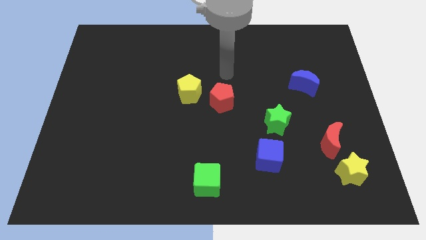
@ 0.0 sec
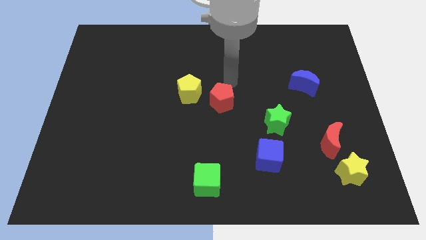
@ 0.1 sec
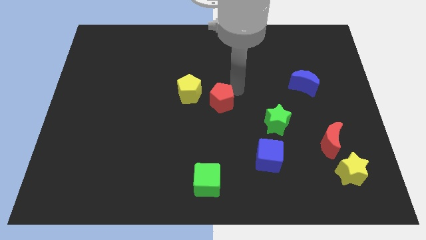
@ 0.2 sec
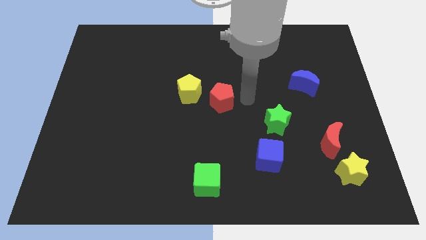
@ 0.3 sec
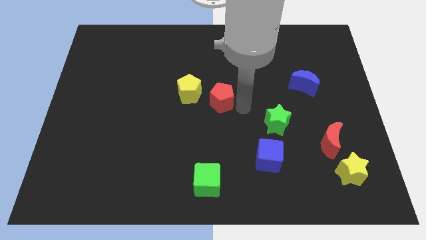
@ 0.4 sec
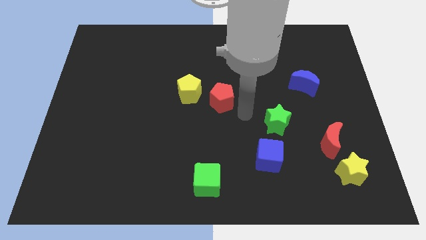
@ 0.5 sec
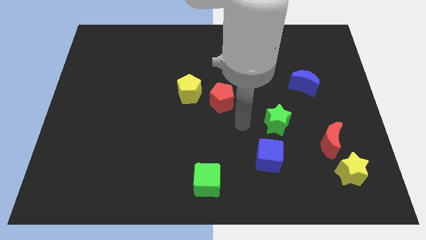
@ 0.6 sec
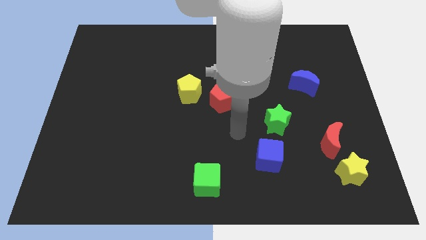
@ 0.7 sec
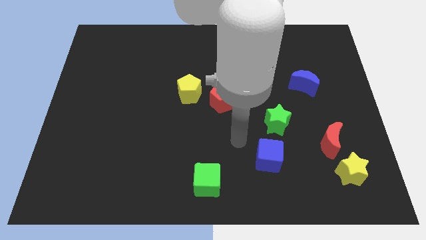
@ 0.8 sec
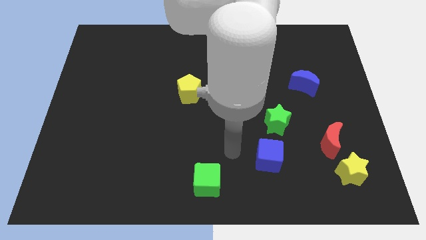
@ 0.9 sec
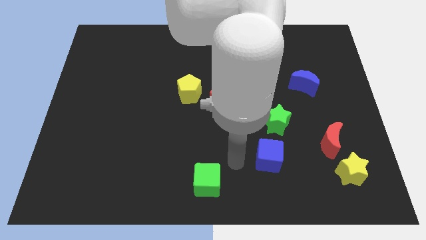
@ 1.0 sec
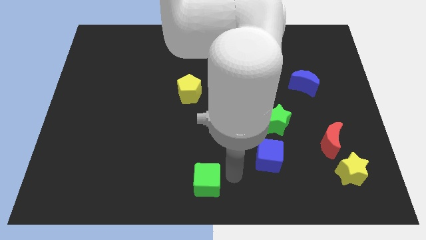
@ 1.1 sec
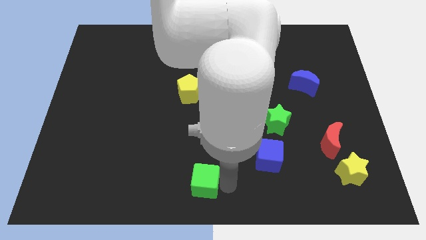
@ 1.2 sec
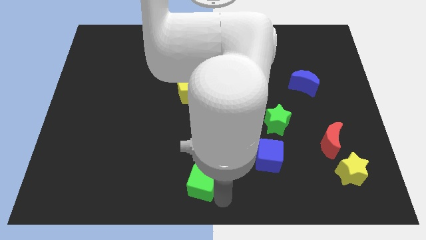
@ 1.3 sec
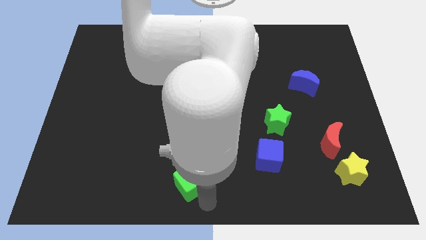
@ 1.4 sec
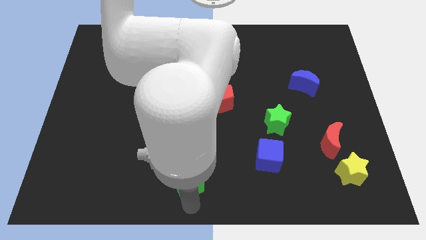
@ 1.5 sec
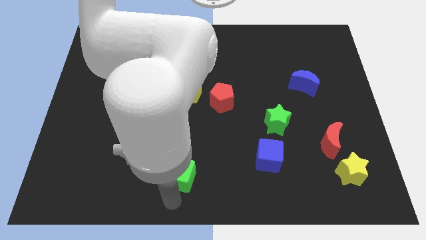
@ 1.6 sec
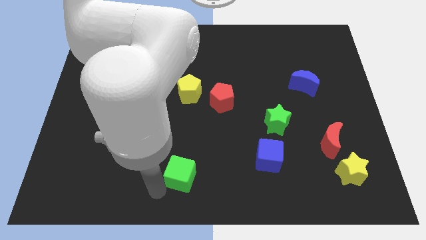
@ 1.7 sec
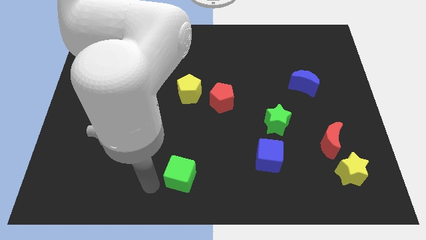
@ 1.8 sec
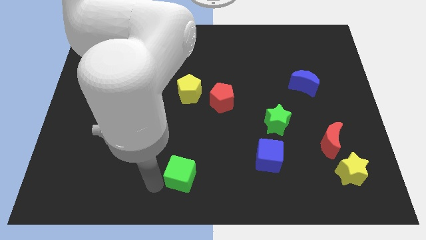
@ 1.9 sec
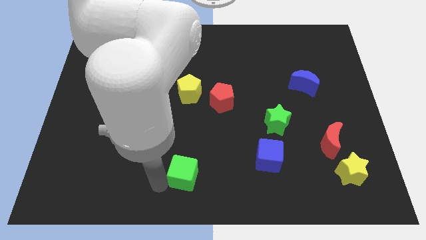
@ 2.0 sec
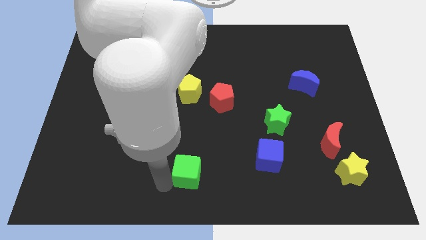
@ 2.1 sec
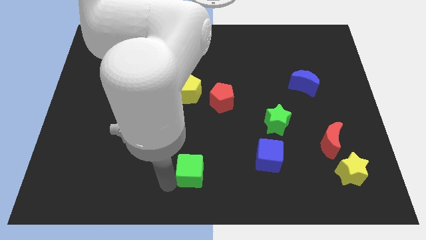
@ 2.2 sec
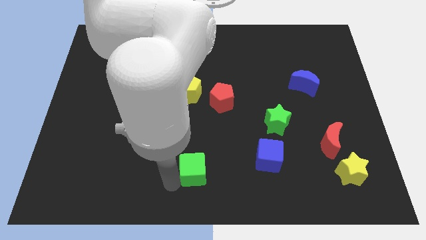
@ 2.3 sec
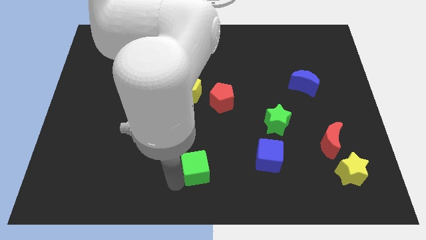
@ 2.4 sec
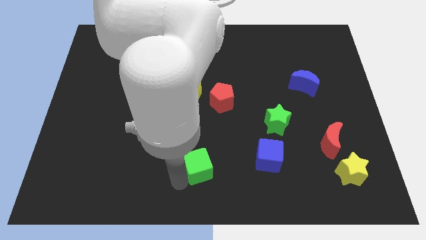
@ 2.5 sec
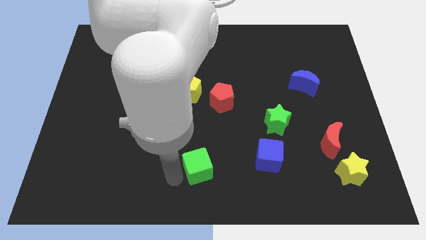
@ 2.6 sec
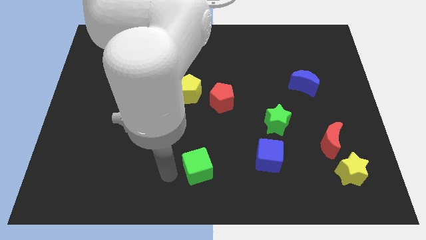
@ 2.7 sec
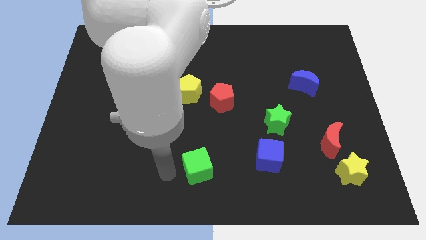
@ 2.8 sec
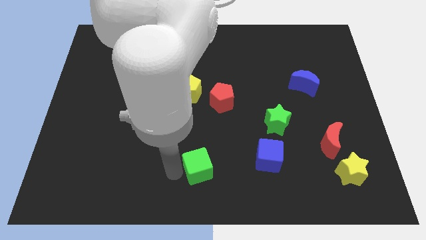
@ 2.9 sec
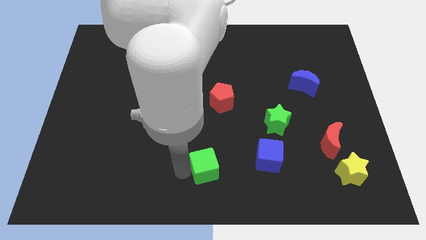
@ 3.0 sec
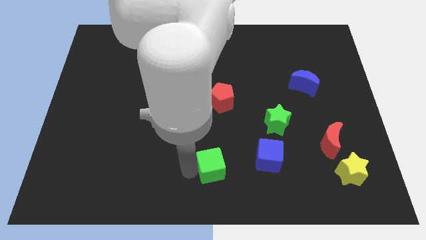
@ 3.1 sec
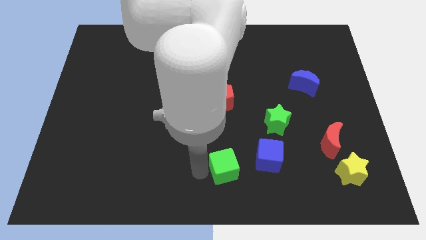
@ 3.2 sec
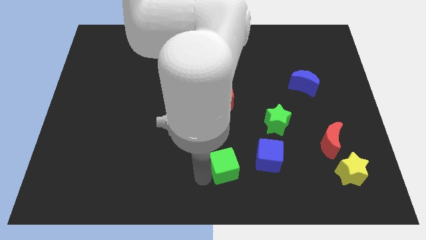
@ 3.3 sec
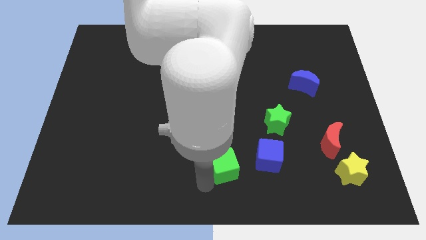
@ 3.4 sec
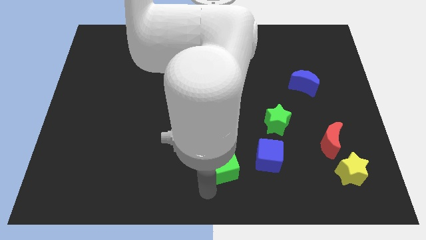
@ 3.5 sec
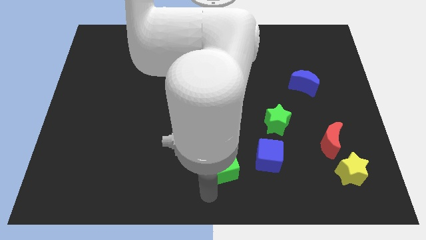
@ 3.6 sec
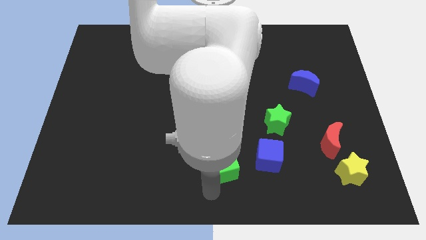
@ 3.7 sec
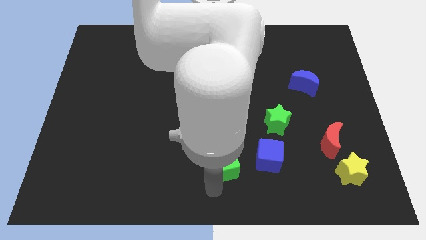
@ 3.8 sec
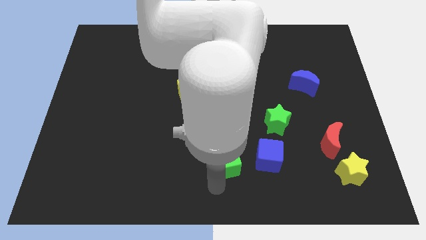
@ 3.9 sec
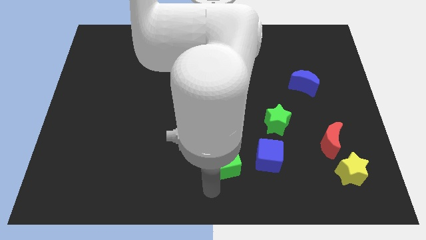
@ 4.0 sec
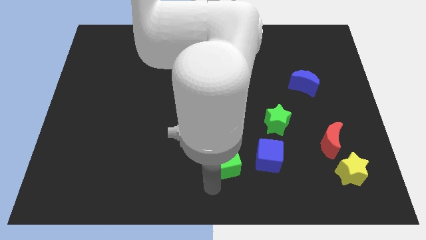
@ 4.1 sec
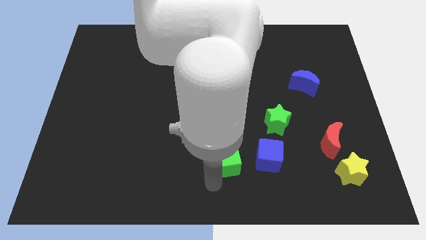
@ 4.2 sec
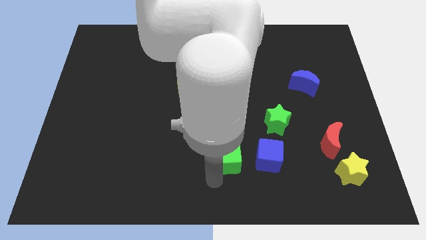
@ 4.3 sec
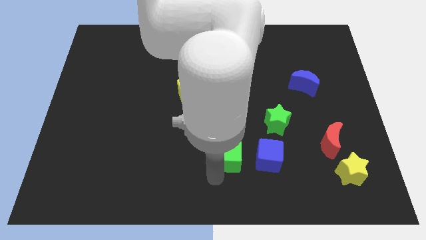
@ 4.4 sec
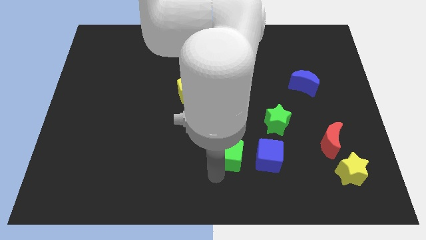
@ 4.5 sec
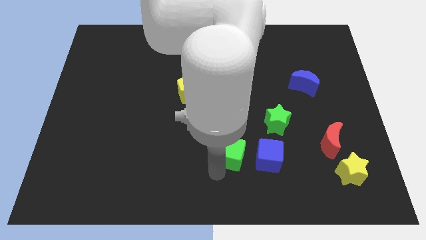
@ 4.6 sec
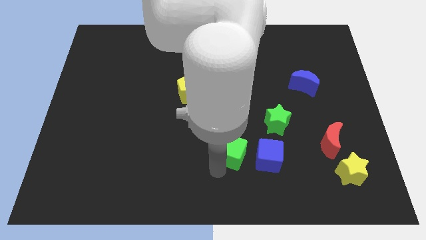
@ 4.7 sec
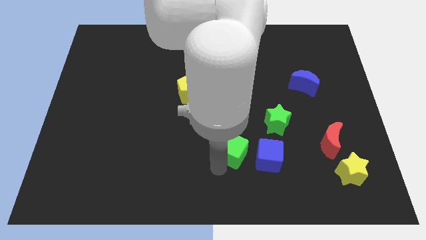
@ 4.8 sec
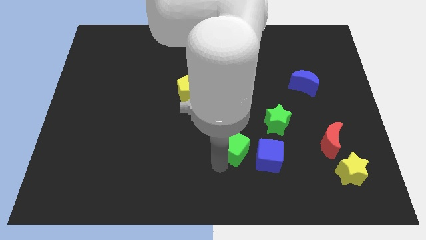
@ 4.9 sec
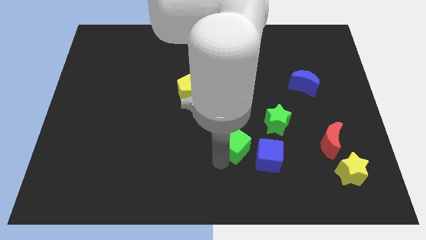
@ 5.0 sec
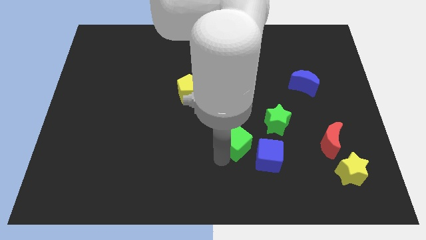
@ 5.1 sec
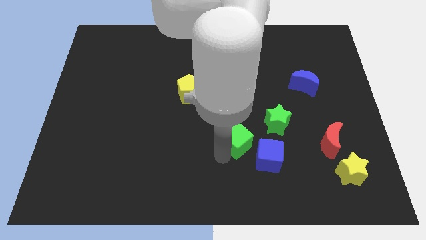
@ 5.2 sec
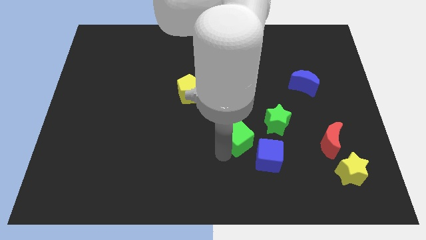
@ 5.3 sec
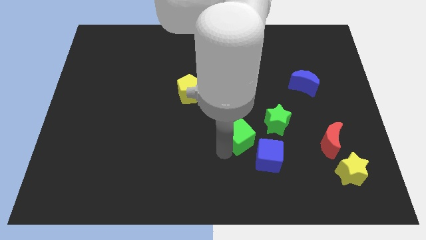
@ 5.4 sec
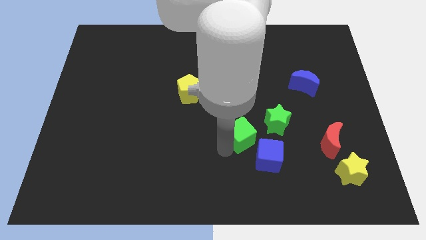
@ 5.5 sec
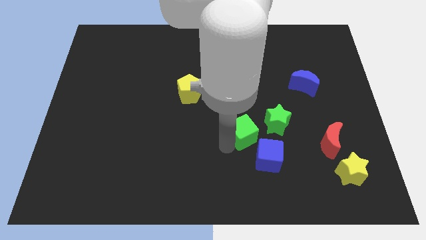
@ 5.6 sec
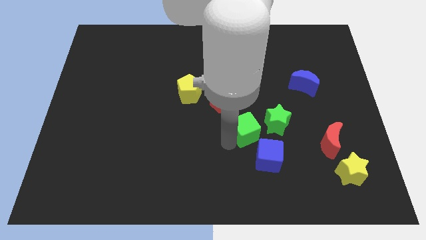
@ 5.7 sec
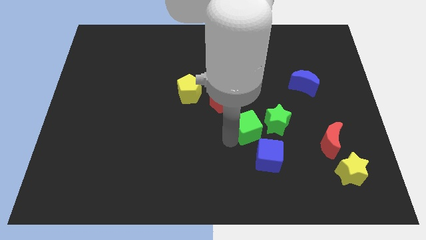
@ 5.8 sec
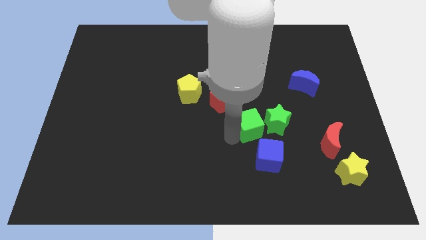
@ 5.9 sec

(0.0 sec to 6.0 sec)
push the green cube close to the green star

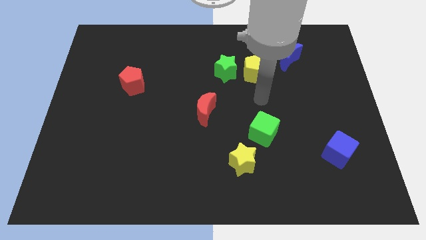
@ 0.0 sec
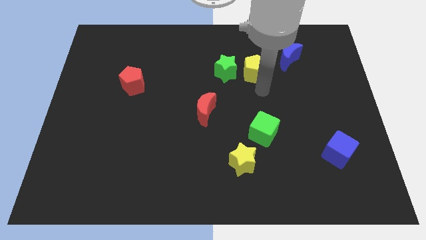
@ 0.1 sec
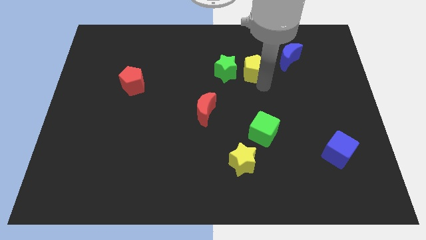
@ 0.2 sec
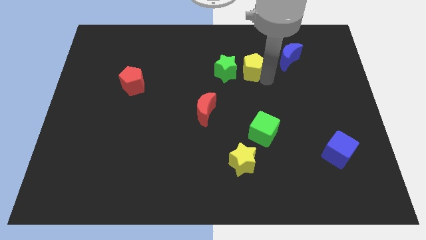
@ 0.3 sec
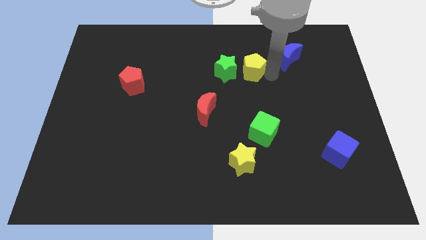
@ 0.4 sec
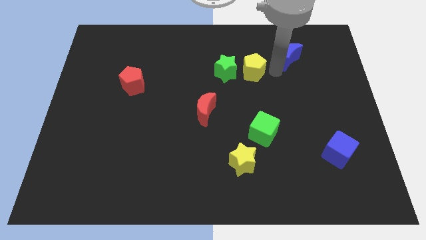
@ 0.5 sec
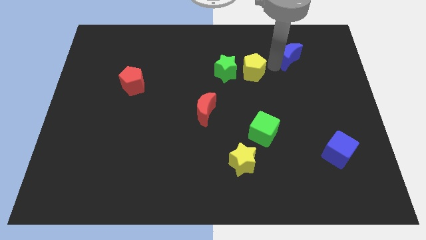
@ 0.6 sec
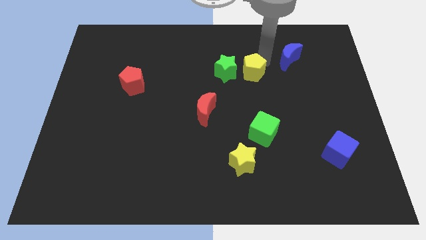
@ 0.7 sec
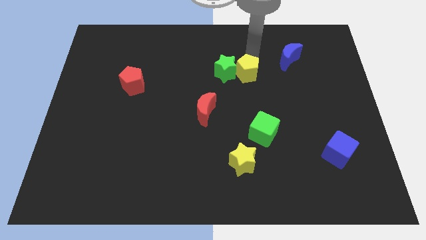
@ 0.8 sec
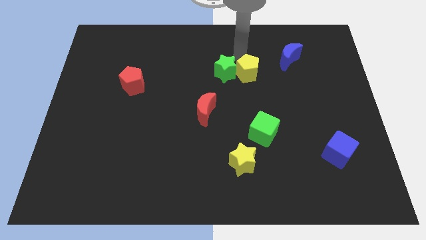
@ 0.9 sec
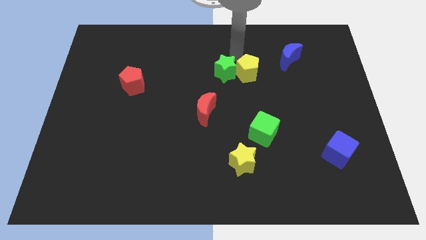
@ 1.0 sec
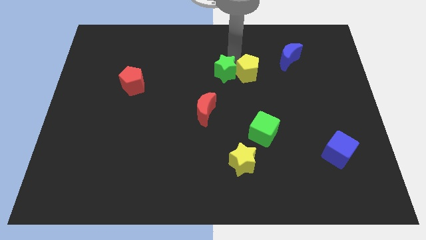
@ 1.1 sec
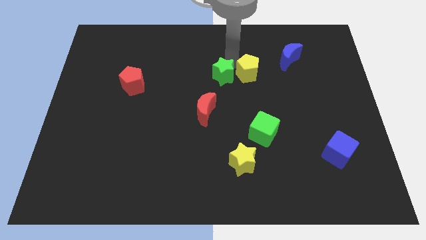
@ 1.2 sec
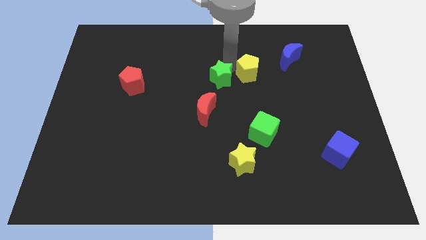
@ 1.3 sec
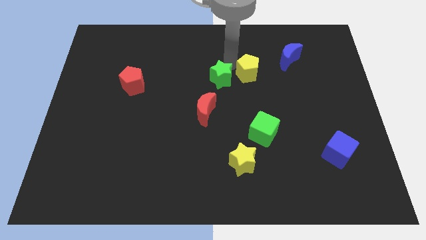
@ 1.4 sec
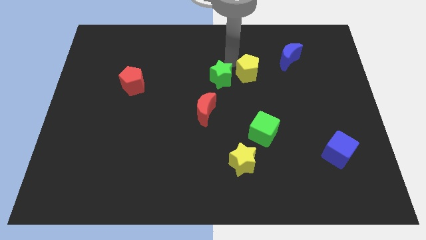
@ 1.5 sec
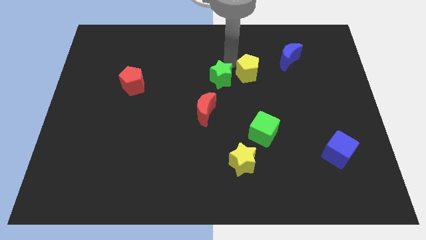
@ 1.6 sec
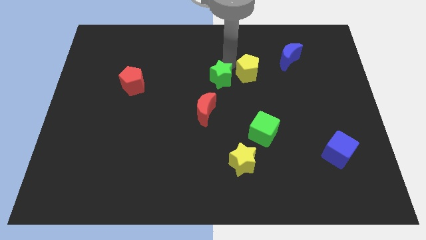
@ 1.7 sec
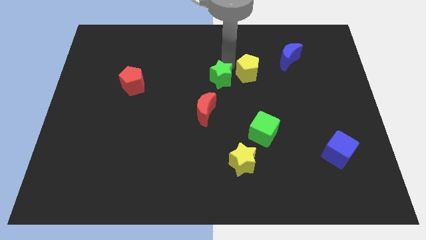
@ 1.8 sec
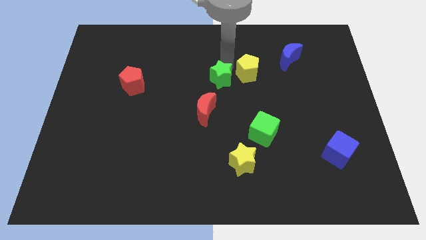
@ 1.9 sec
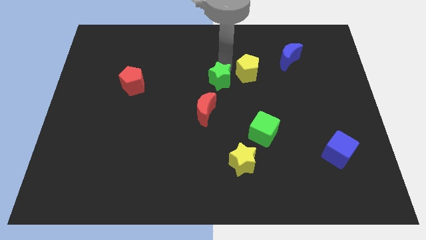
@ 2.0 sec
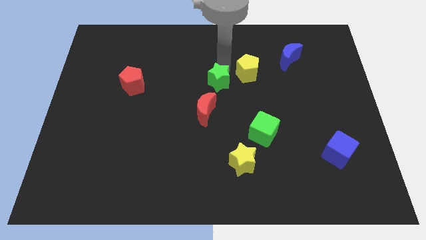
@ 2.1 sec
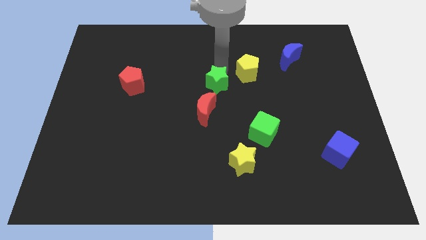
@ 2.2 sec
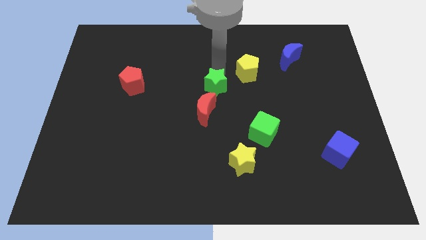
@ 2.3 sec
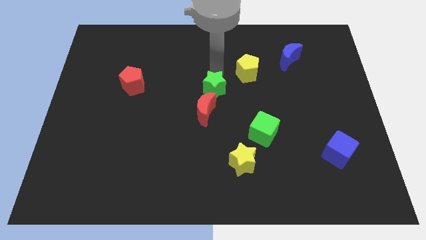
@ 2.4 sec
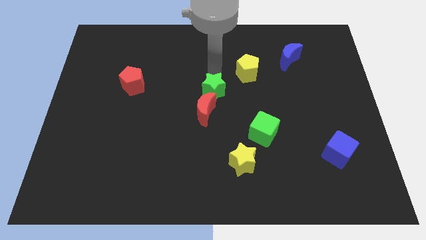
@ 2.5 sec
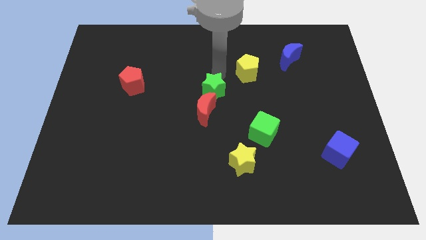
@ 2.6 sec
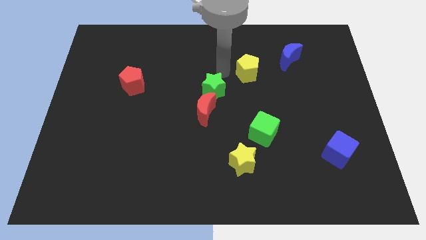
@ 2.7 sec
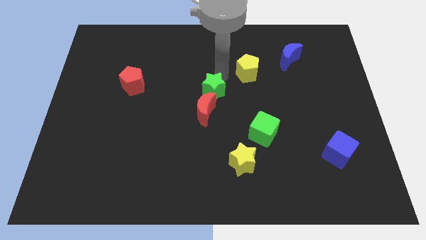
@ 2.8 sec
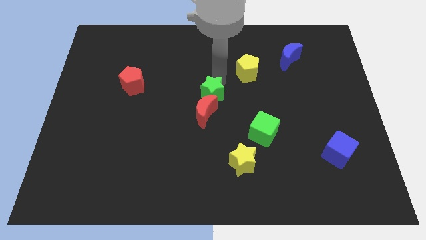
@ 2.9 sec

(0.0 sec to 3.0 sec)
put the green star to the red moon
